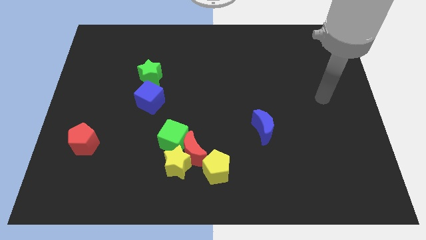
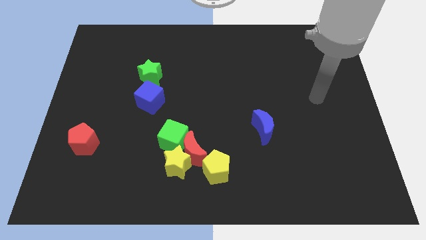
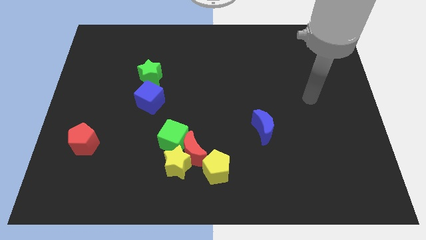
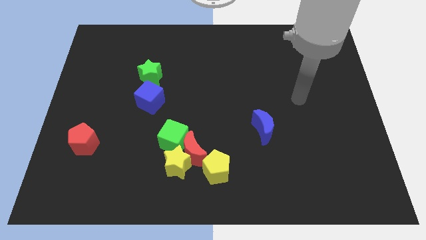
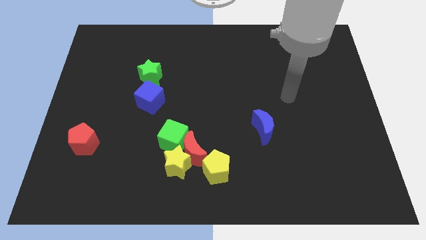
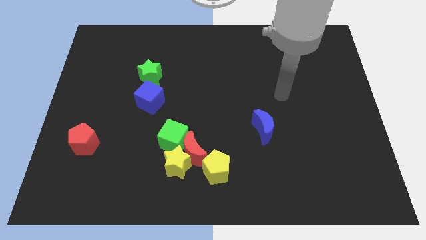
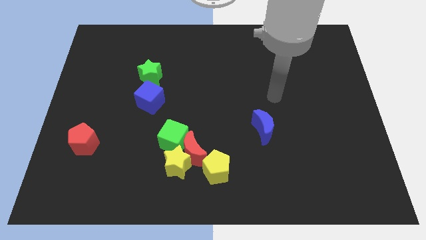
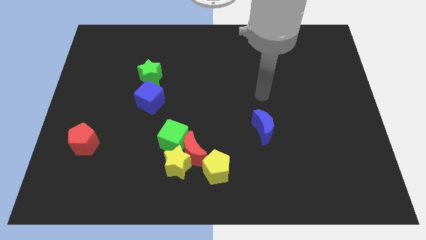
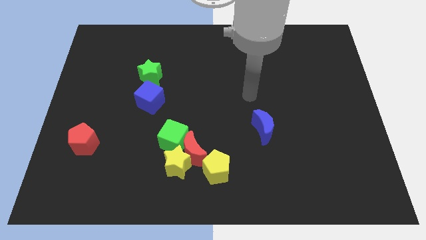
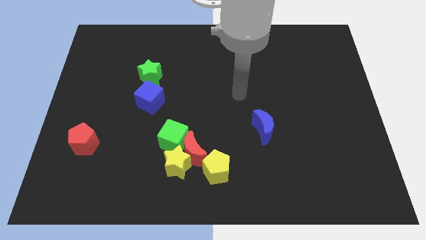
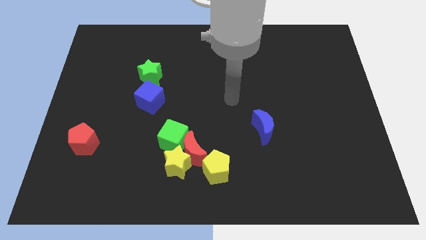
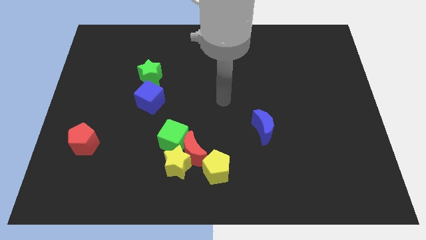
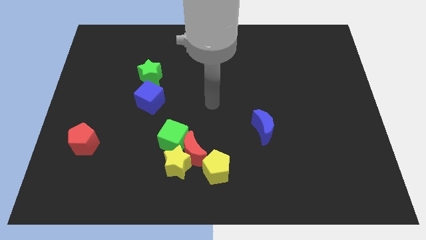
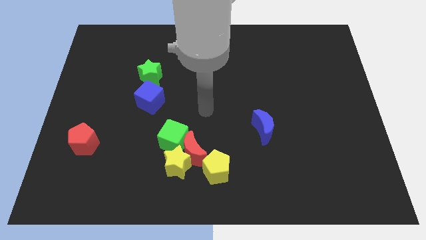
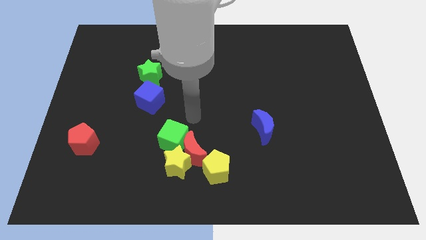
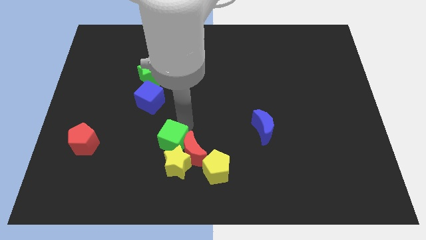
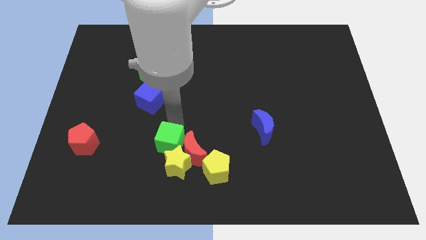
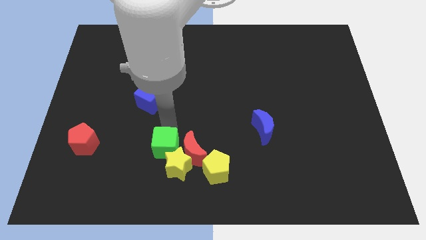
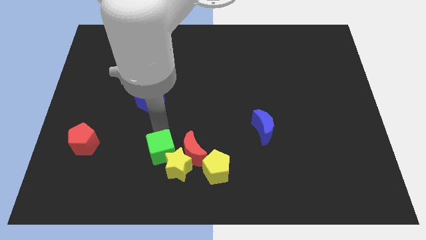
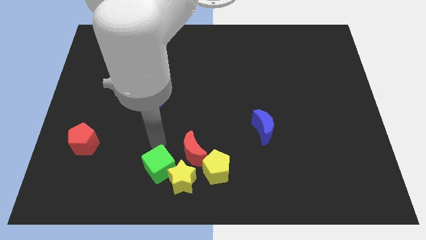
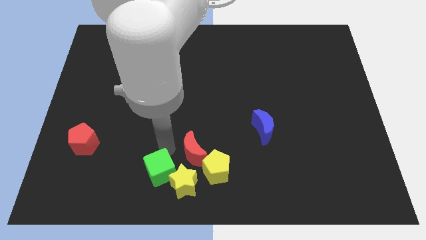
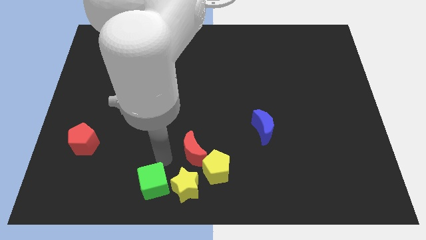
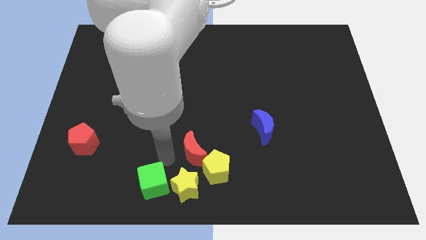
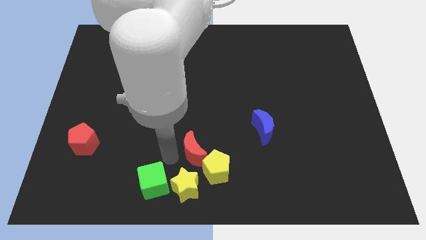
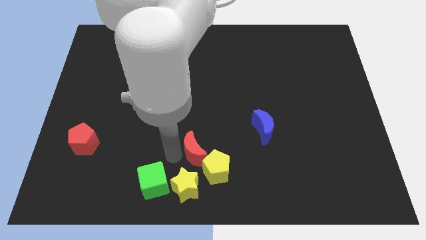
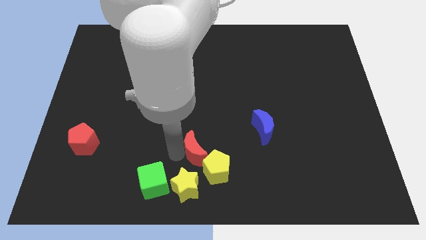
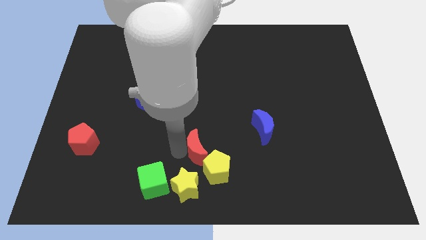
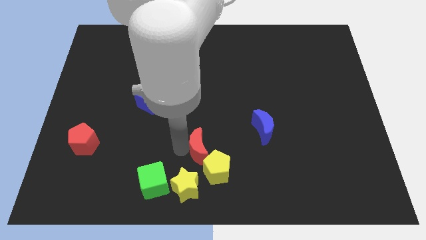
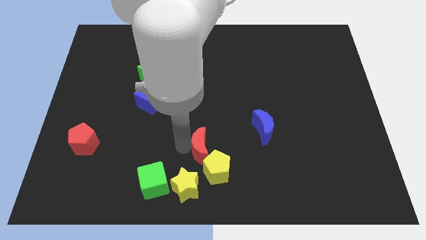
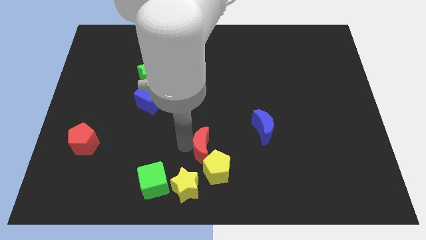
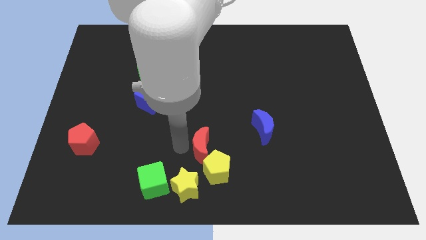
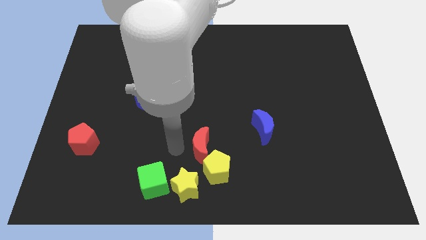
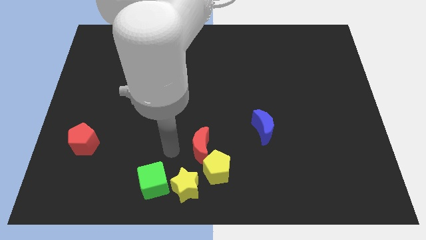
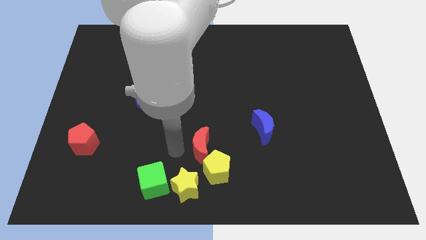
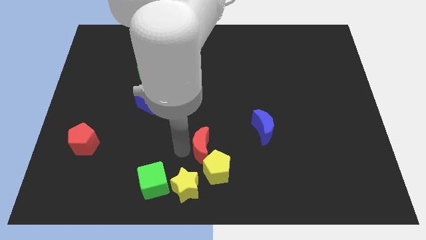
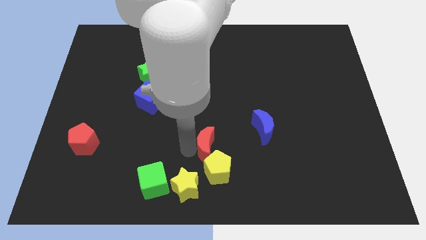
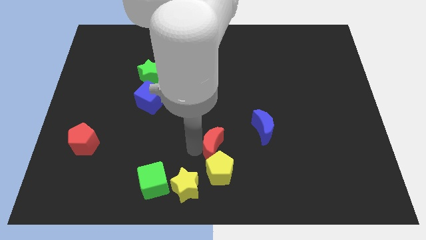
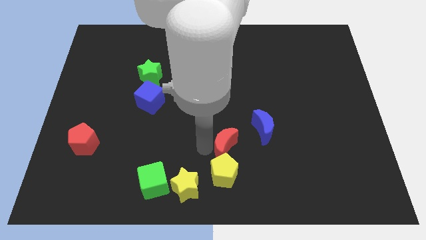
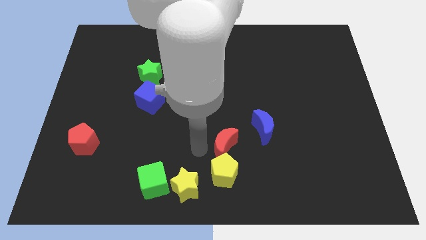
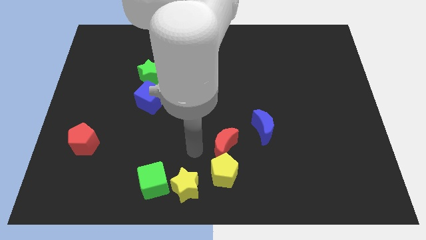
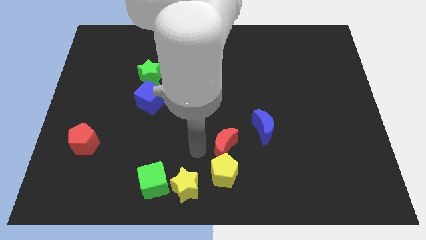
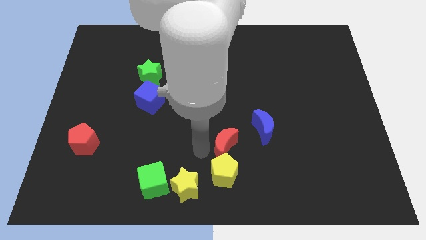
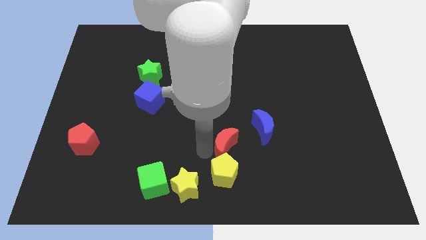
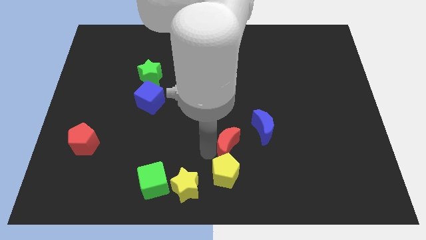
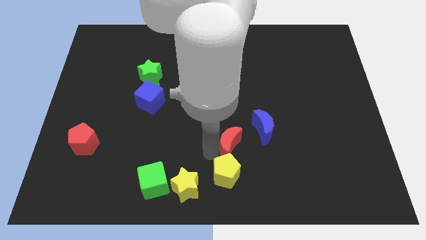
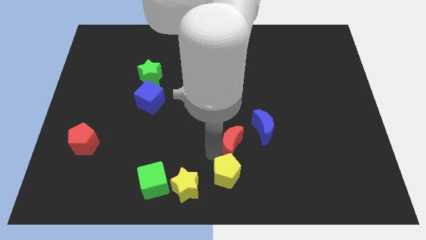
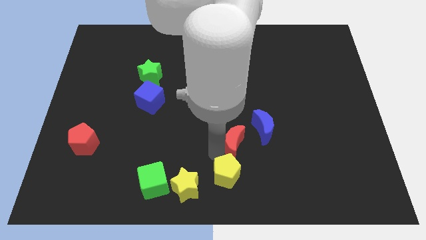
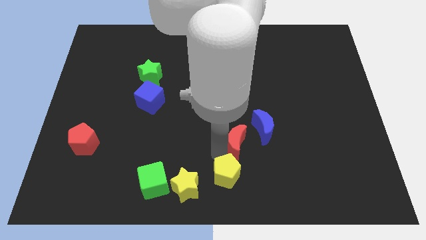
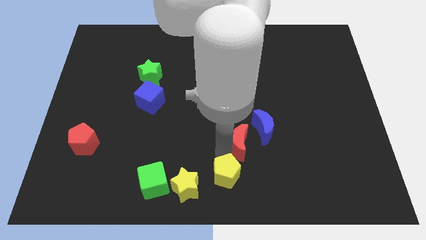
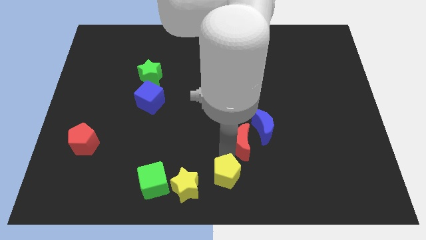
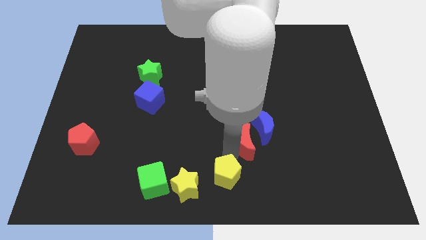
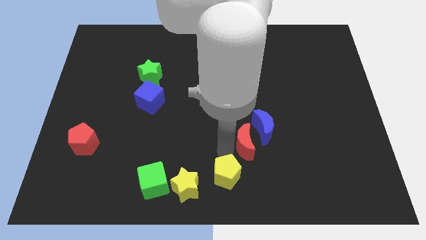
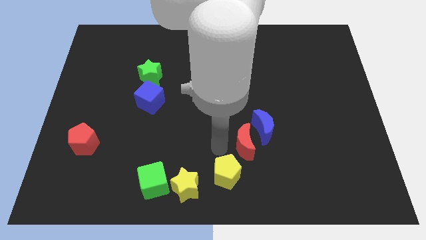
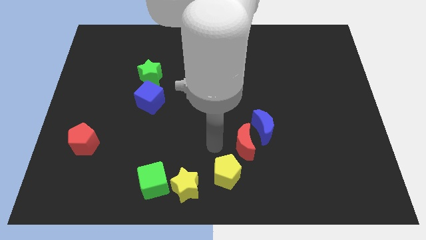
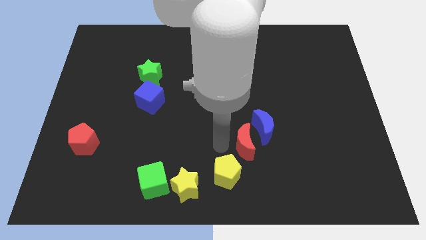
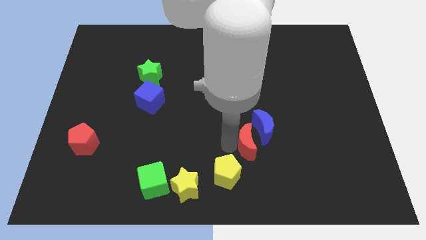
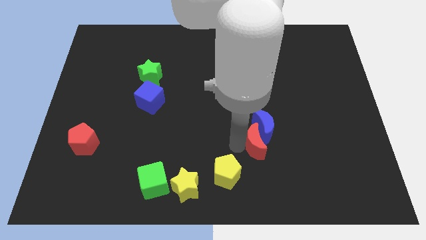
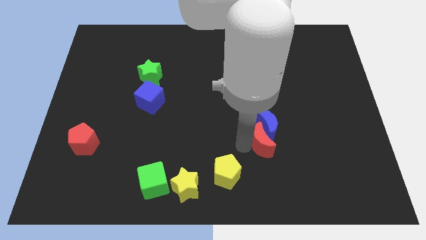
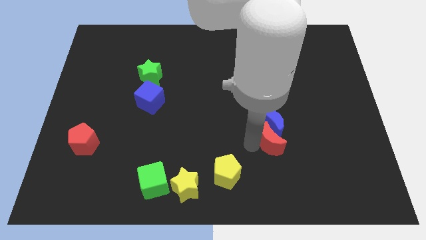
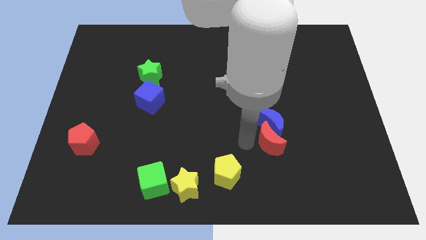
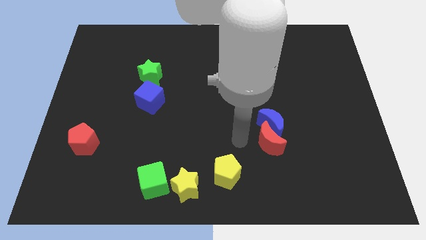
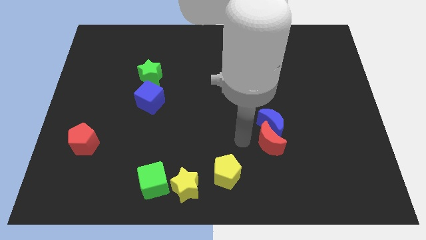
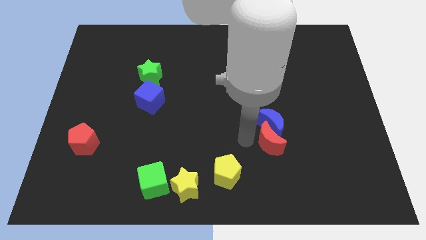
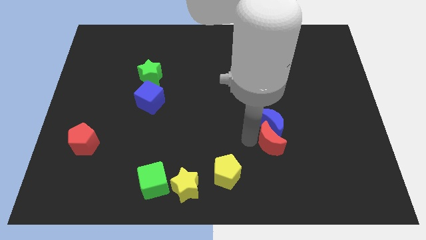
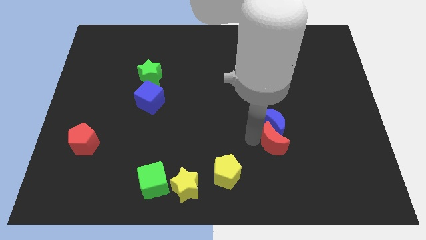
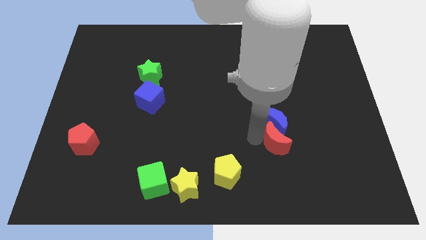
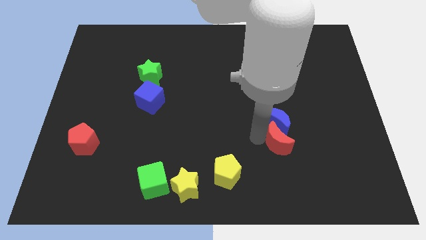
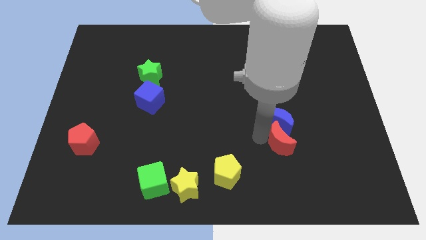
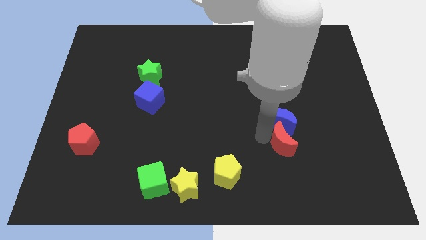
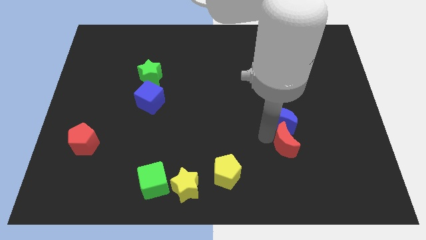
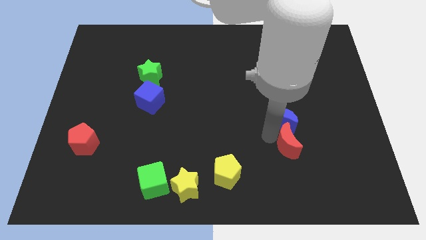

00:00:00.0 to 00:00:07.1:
move the red moon right

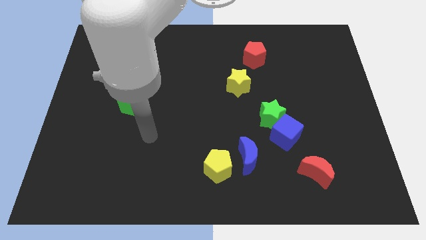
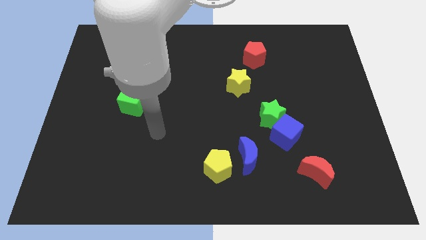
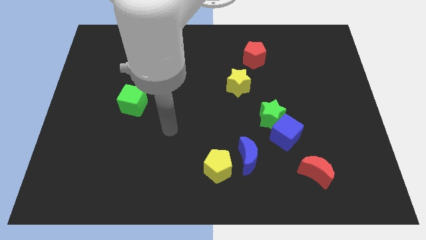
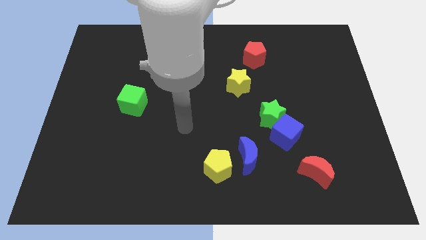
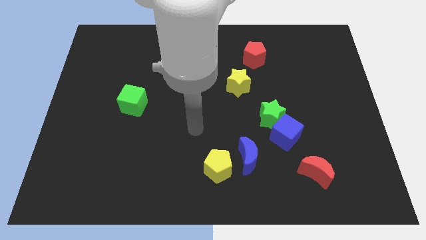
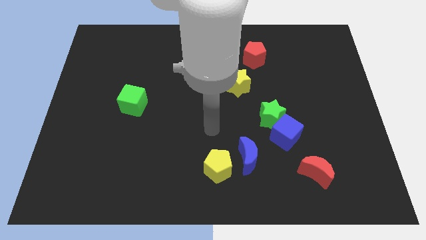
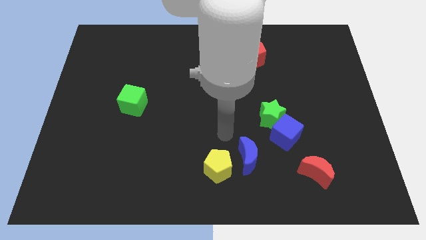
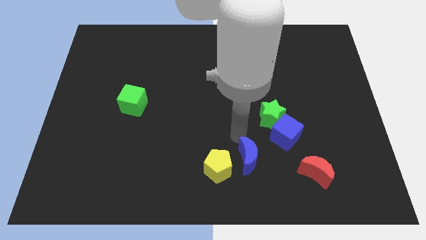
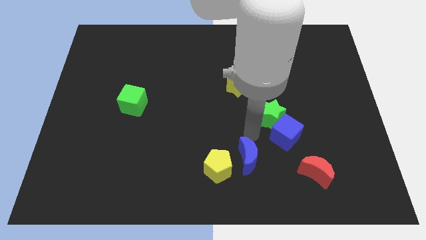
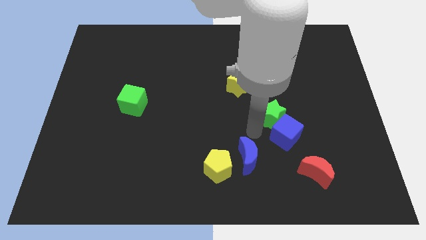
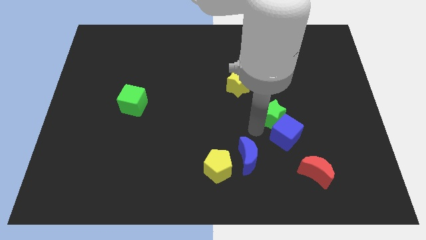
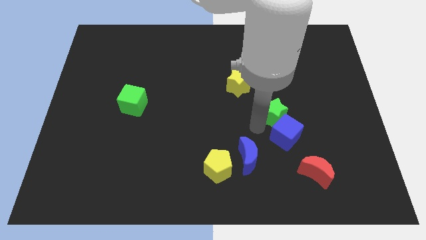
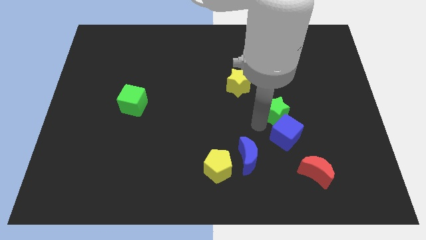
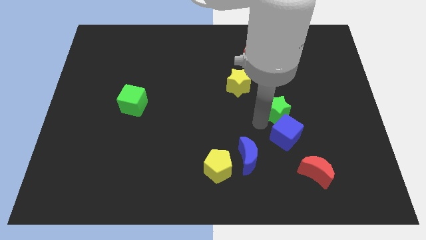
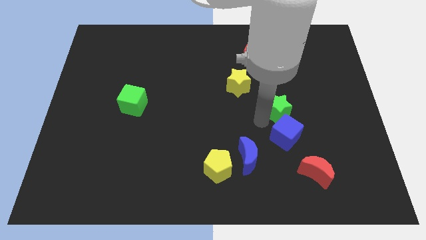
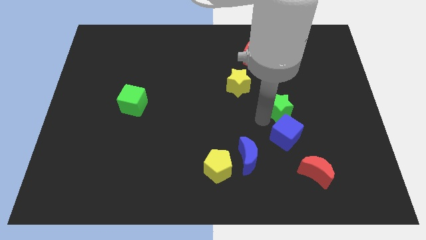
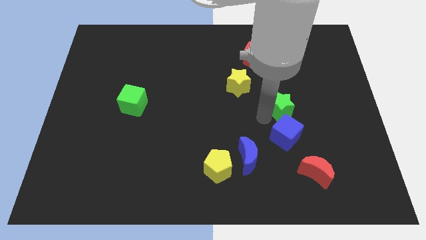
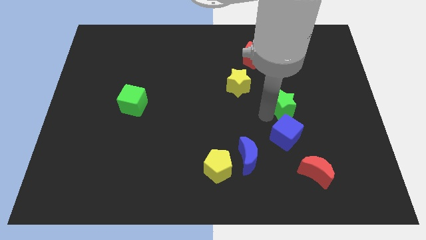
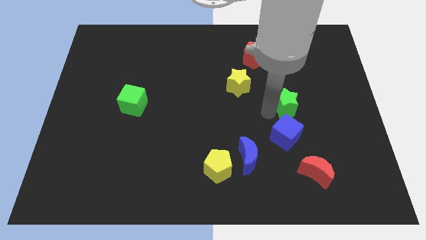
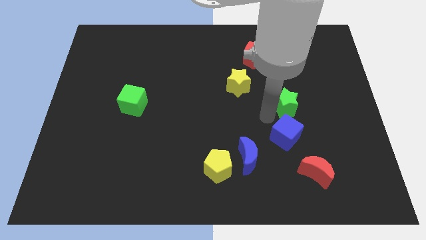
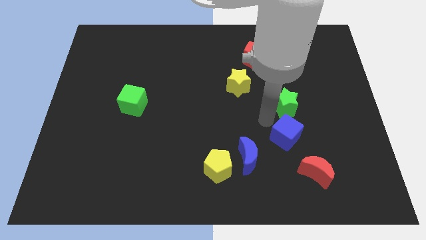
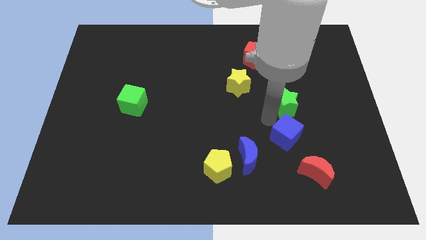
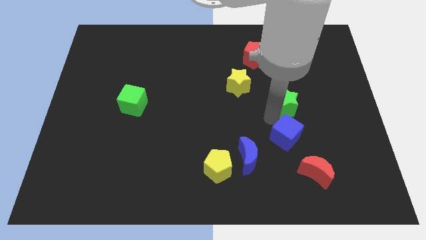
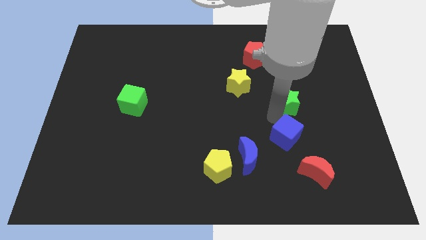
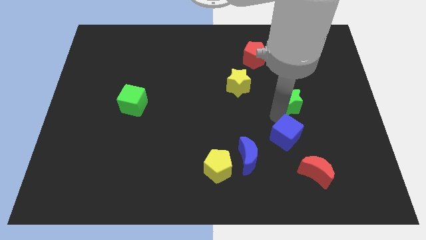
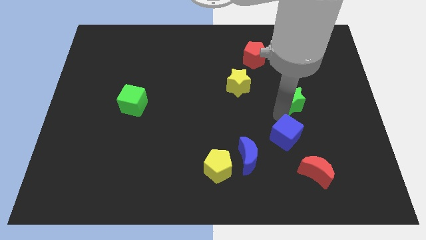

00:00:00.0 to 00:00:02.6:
move the green star up and to the right diagonally slightly
